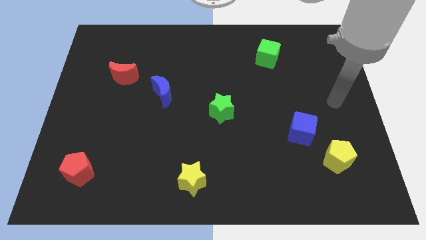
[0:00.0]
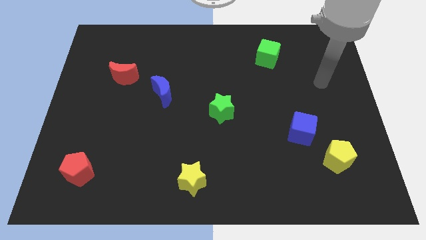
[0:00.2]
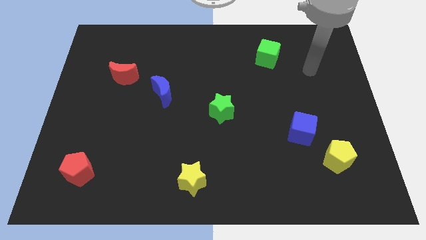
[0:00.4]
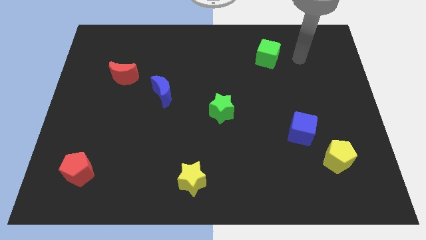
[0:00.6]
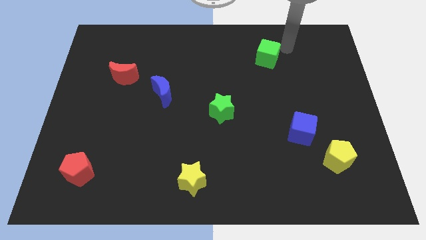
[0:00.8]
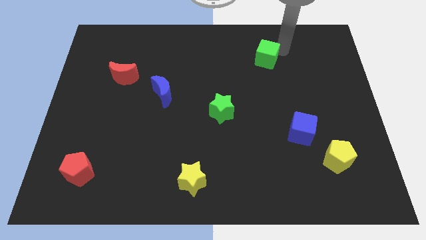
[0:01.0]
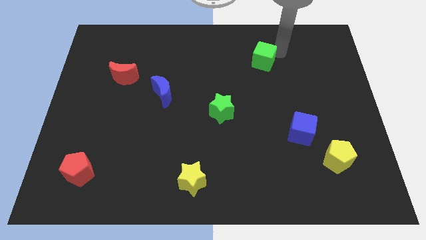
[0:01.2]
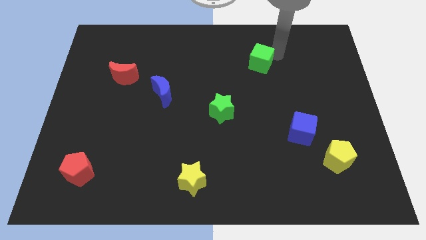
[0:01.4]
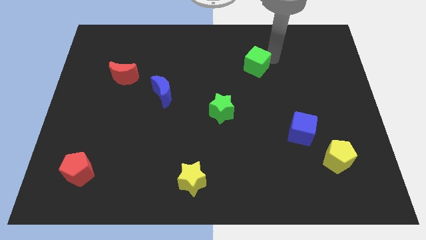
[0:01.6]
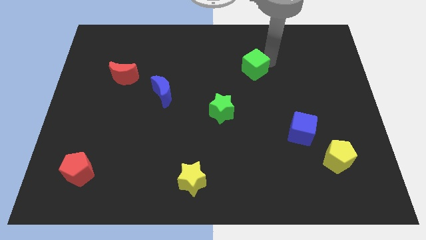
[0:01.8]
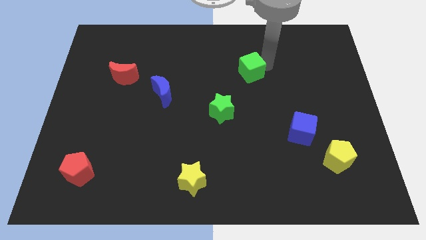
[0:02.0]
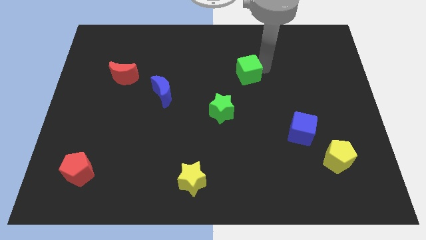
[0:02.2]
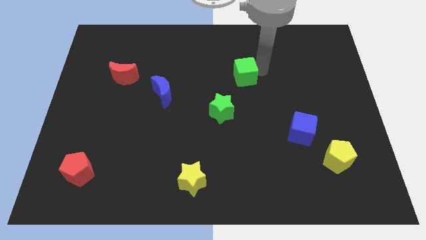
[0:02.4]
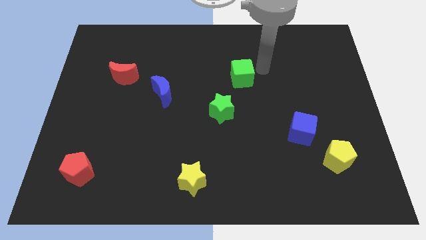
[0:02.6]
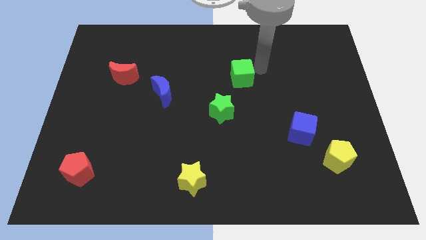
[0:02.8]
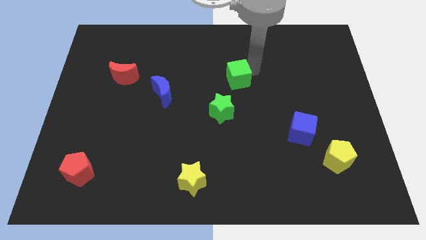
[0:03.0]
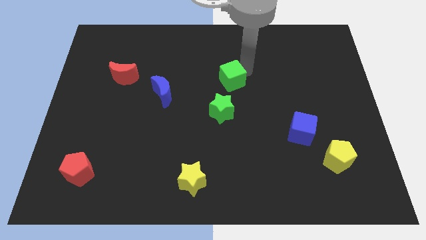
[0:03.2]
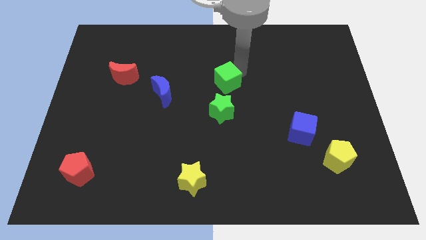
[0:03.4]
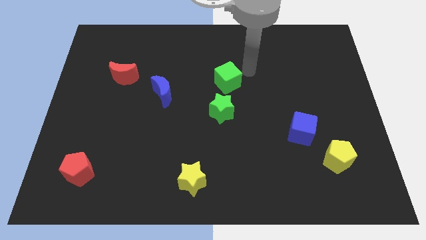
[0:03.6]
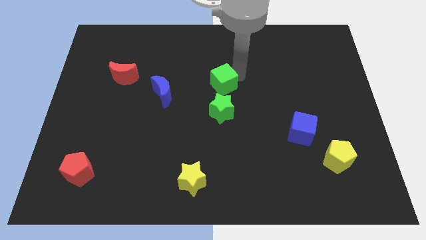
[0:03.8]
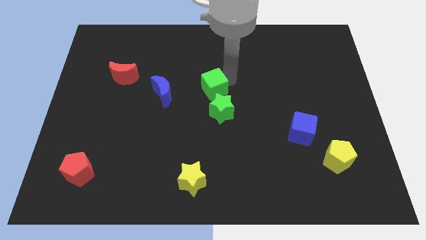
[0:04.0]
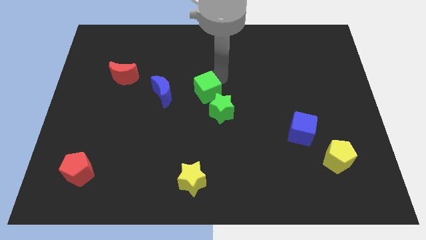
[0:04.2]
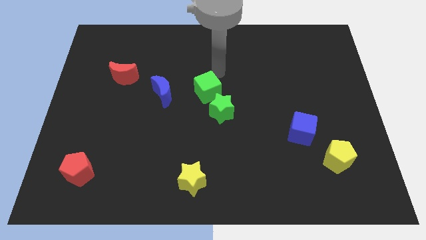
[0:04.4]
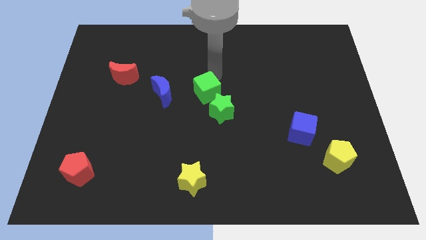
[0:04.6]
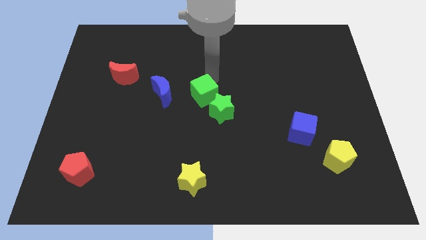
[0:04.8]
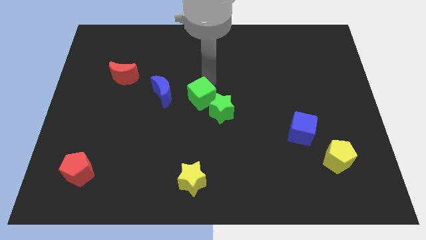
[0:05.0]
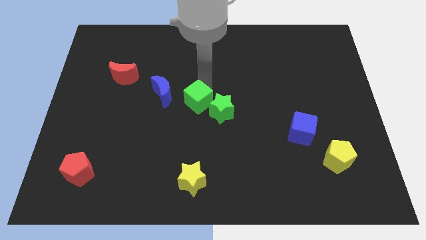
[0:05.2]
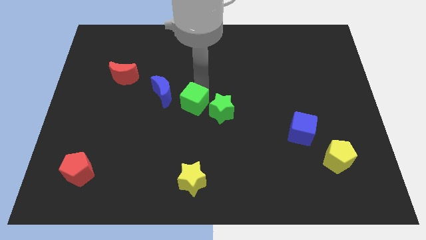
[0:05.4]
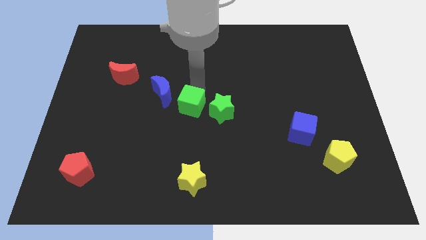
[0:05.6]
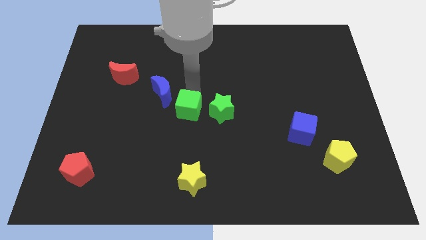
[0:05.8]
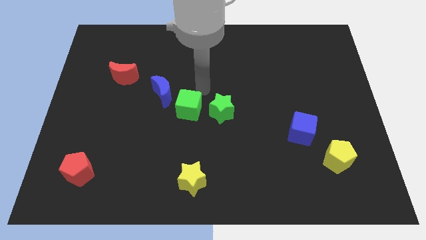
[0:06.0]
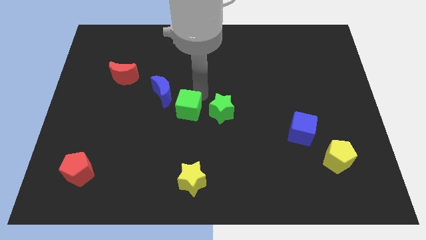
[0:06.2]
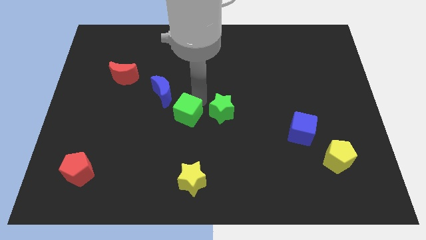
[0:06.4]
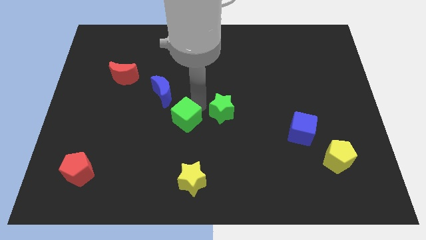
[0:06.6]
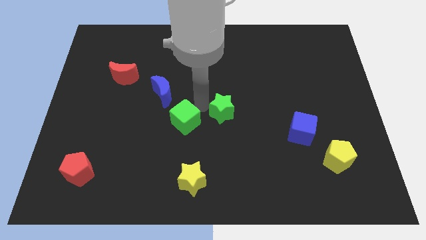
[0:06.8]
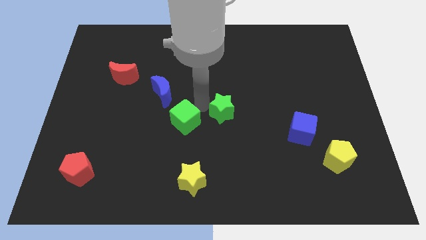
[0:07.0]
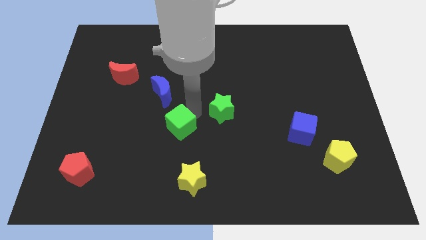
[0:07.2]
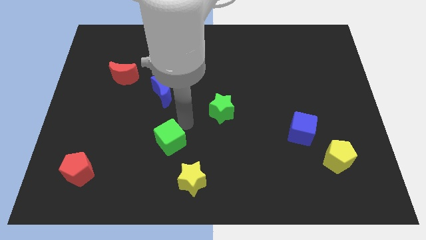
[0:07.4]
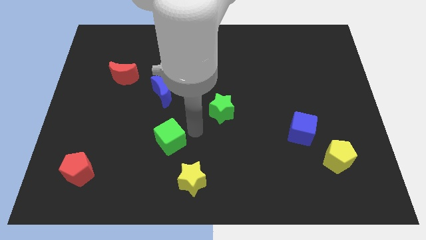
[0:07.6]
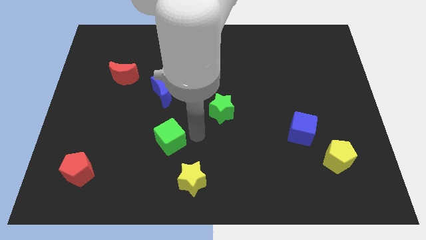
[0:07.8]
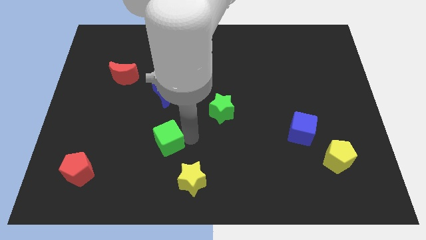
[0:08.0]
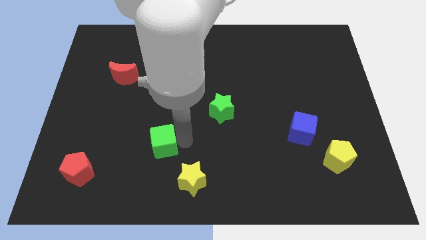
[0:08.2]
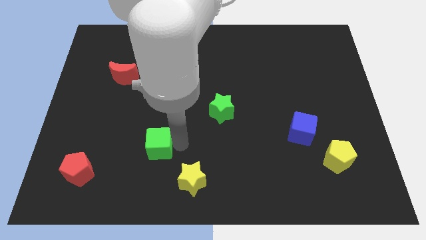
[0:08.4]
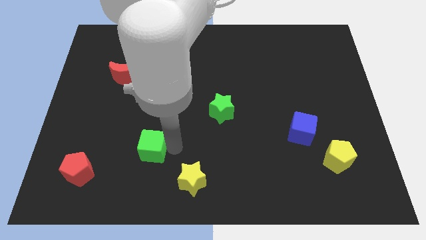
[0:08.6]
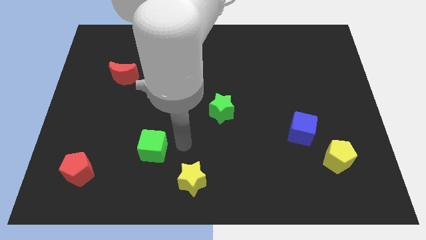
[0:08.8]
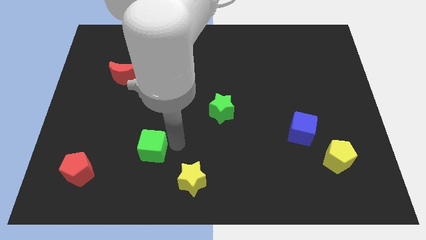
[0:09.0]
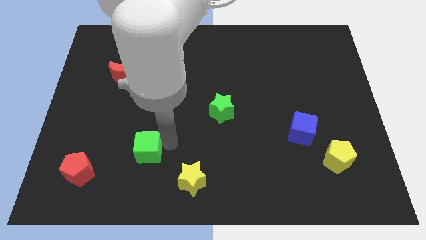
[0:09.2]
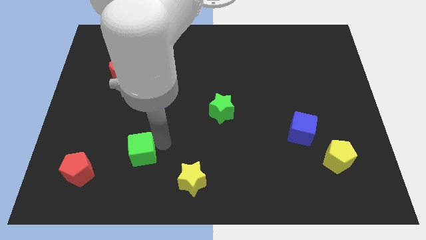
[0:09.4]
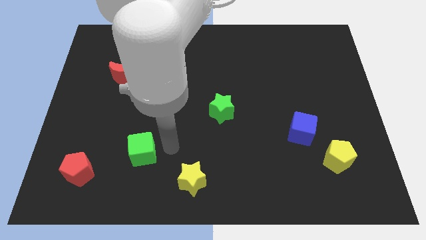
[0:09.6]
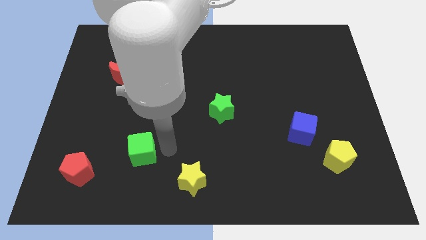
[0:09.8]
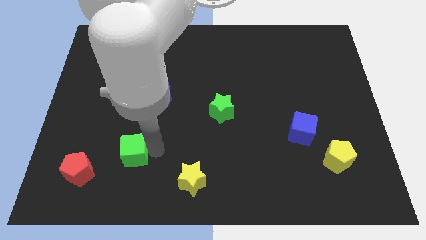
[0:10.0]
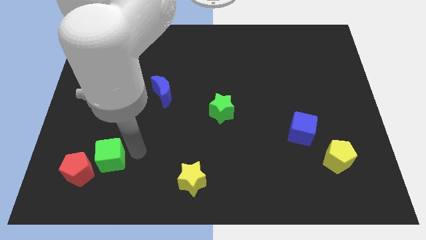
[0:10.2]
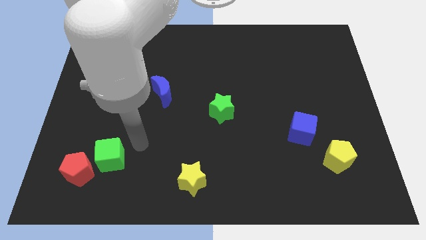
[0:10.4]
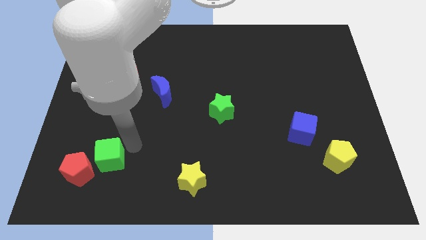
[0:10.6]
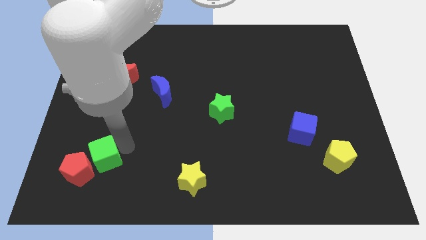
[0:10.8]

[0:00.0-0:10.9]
move the green cube towards the red pentagon

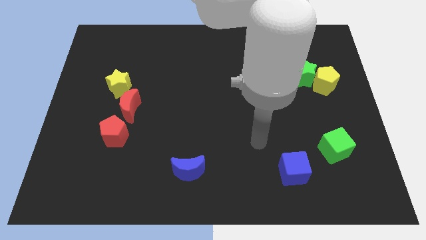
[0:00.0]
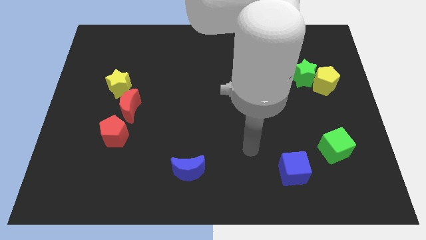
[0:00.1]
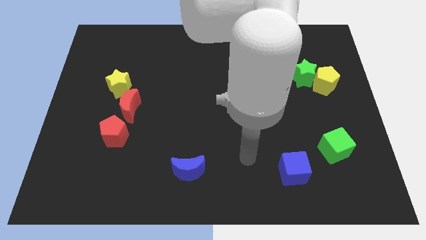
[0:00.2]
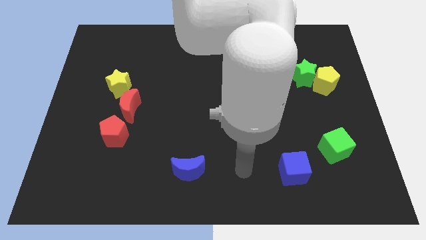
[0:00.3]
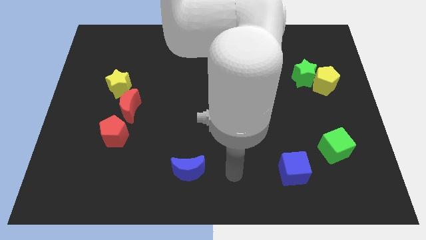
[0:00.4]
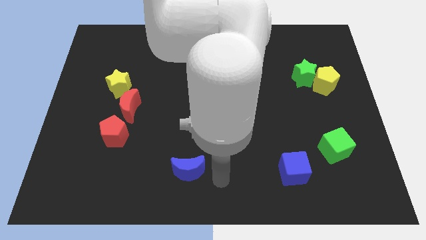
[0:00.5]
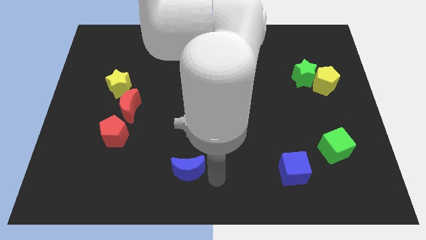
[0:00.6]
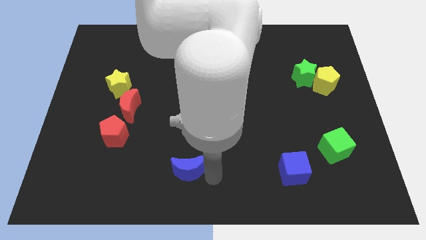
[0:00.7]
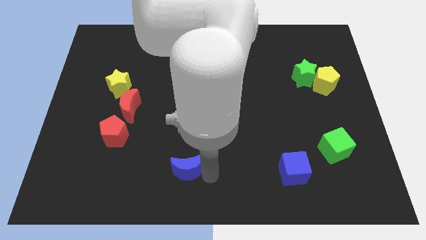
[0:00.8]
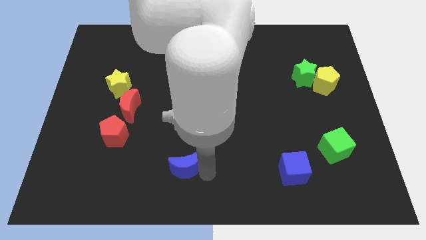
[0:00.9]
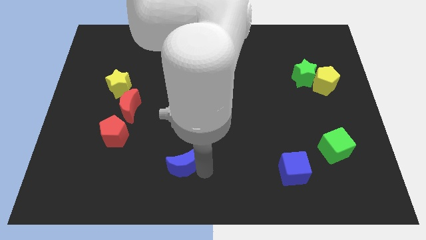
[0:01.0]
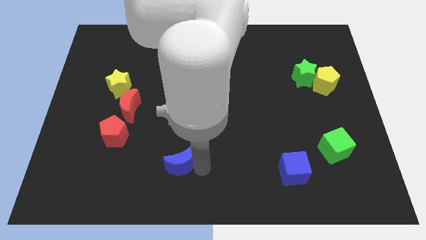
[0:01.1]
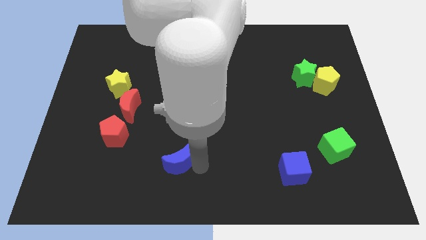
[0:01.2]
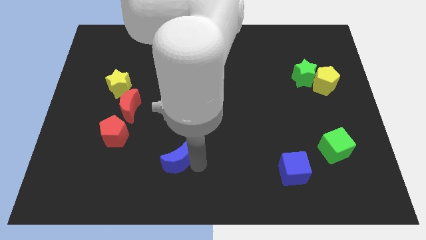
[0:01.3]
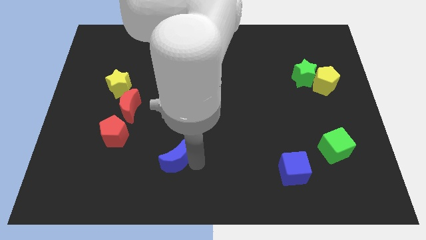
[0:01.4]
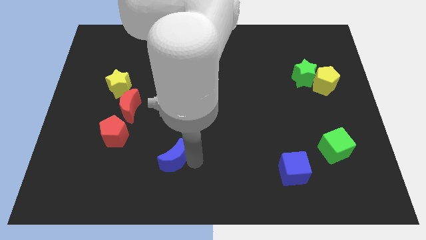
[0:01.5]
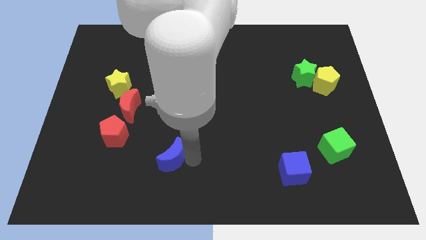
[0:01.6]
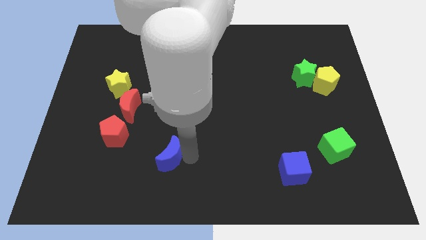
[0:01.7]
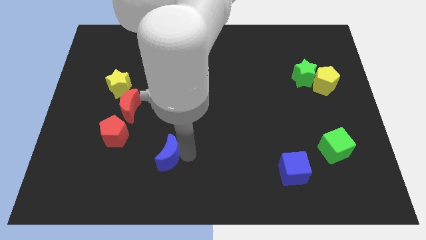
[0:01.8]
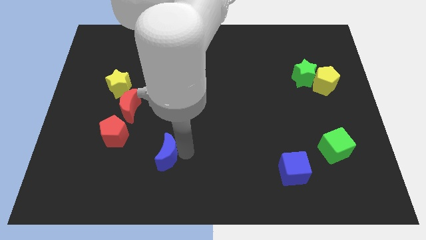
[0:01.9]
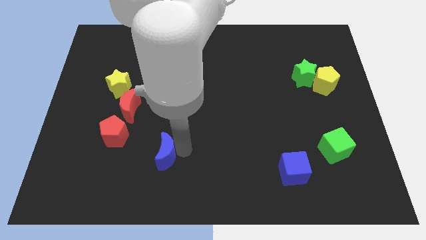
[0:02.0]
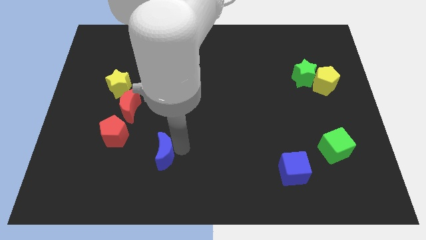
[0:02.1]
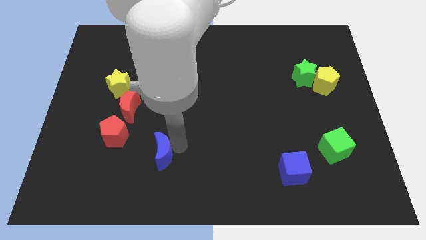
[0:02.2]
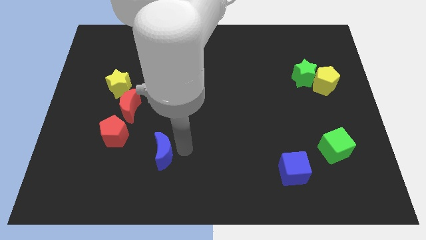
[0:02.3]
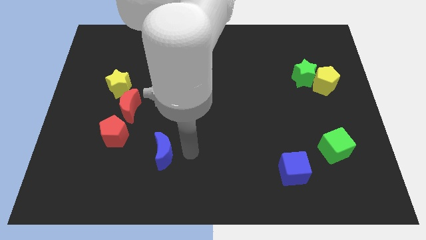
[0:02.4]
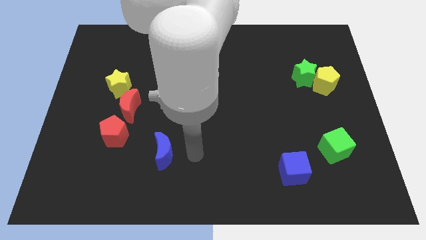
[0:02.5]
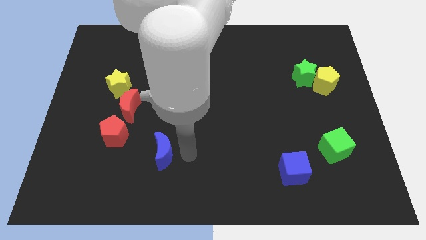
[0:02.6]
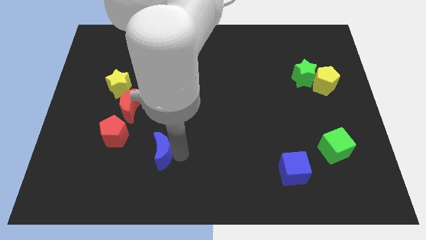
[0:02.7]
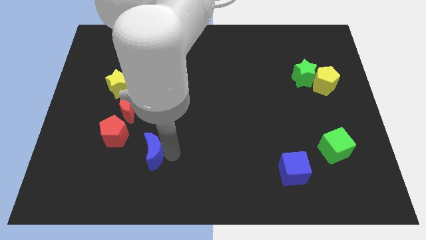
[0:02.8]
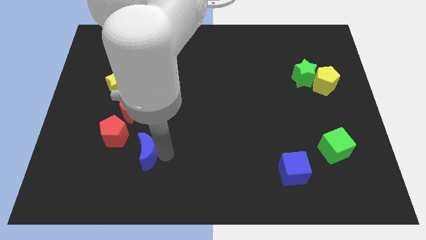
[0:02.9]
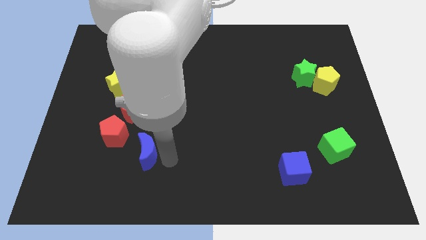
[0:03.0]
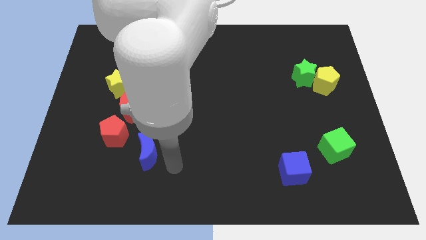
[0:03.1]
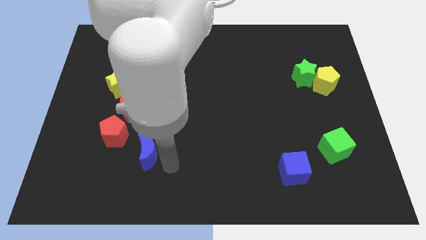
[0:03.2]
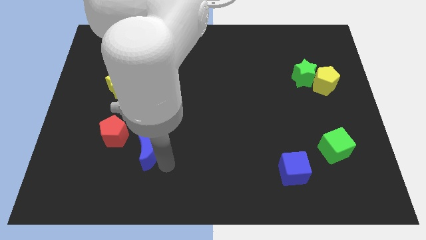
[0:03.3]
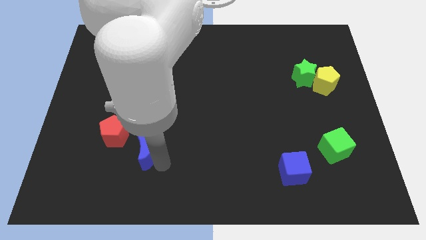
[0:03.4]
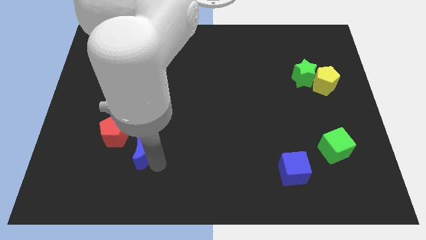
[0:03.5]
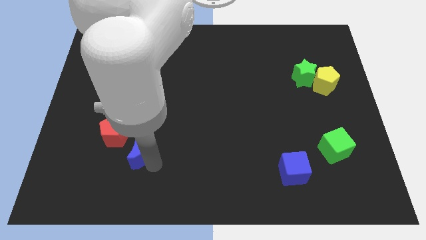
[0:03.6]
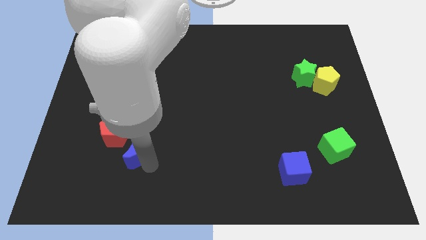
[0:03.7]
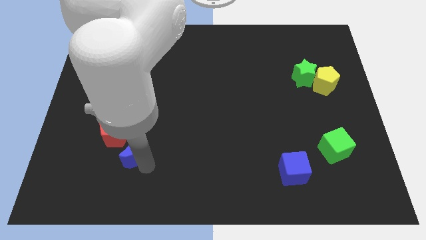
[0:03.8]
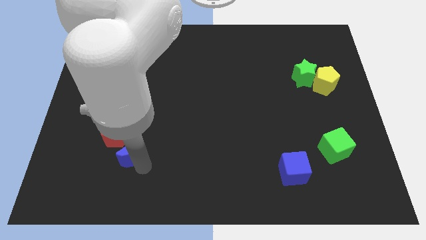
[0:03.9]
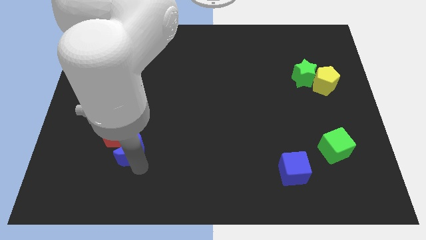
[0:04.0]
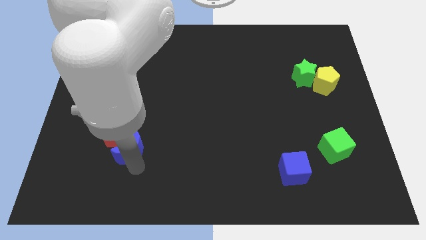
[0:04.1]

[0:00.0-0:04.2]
put the blue moon towards the red pentagon
